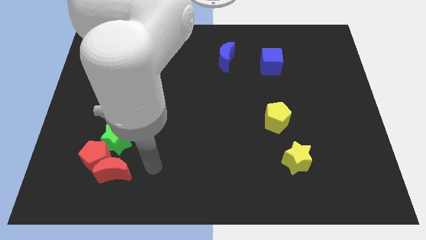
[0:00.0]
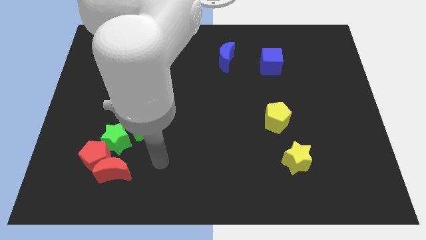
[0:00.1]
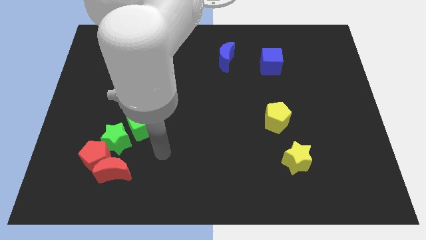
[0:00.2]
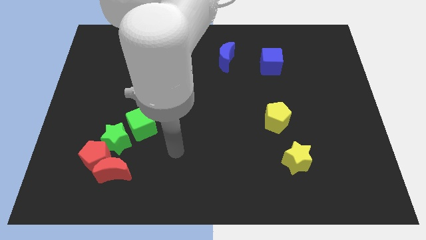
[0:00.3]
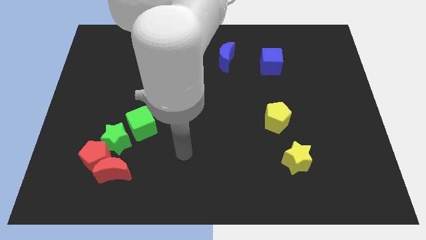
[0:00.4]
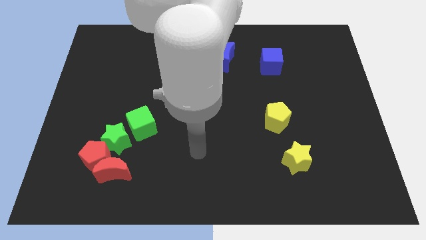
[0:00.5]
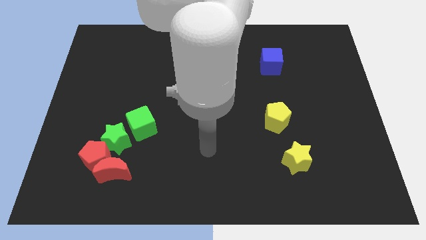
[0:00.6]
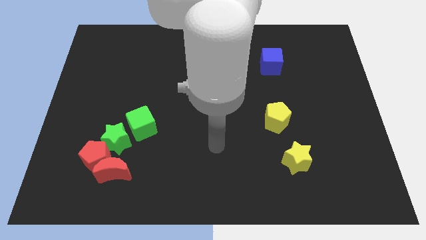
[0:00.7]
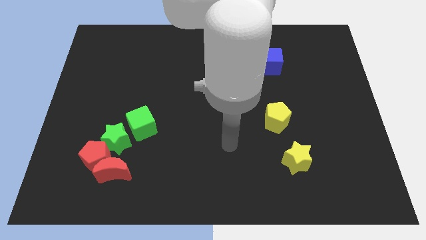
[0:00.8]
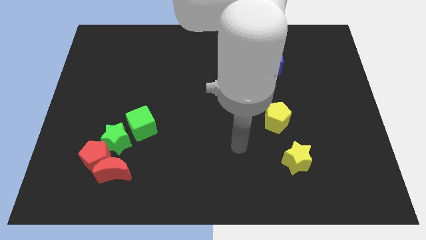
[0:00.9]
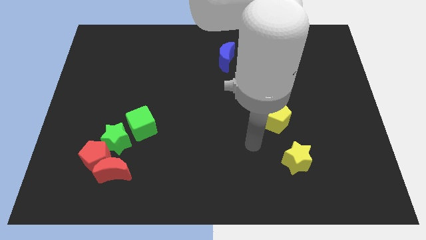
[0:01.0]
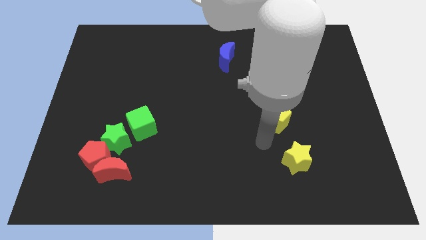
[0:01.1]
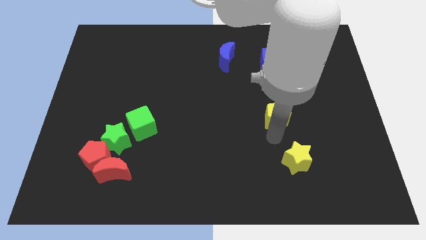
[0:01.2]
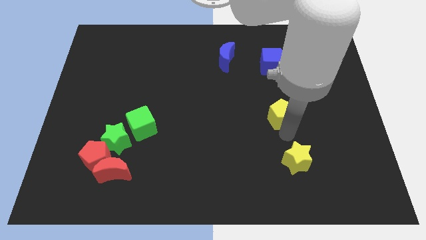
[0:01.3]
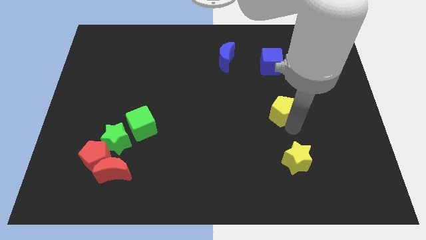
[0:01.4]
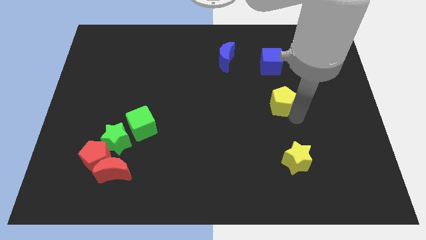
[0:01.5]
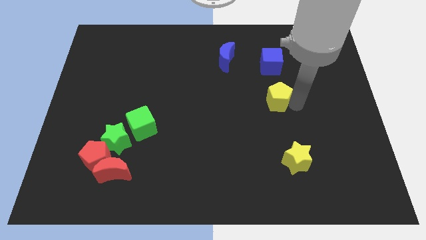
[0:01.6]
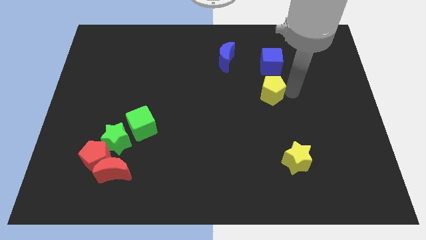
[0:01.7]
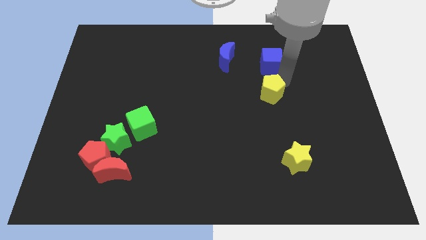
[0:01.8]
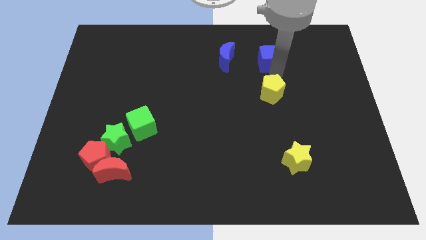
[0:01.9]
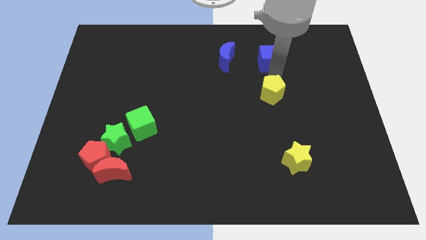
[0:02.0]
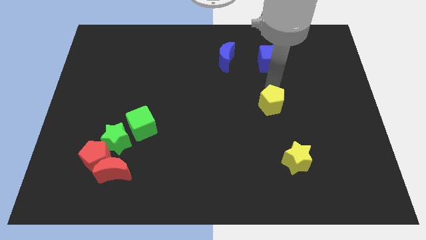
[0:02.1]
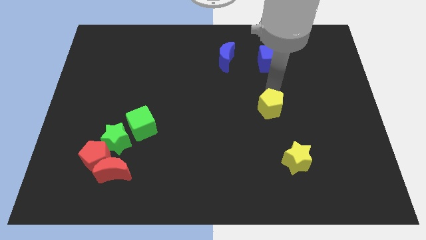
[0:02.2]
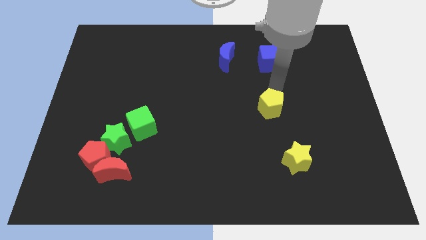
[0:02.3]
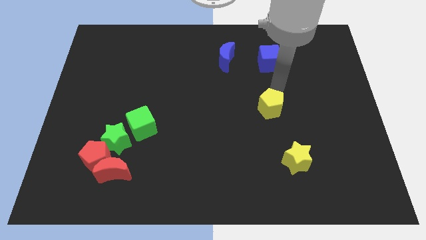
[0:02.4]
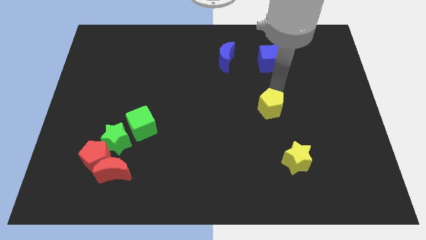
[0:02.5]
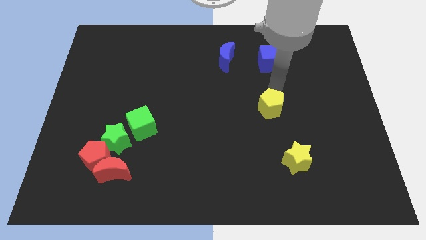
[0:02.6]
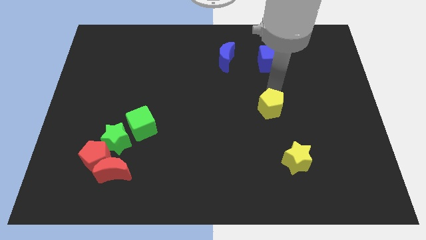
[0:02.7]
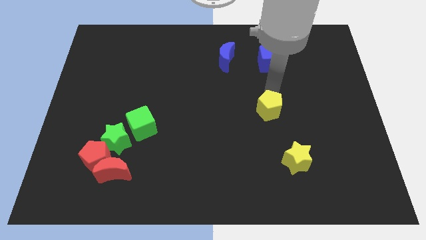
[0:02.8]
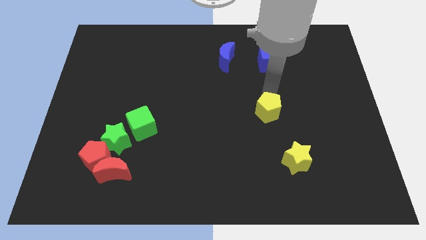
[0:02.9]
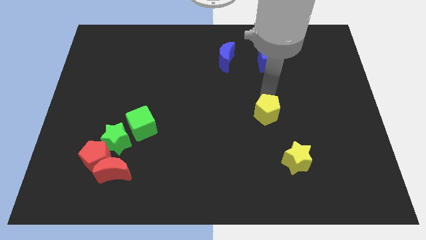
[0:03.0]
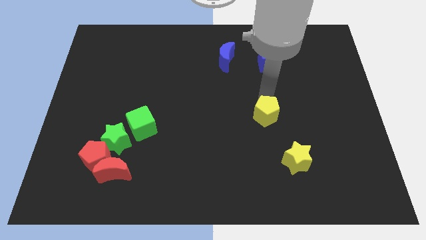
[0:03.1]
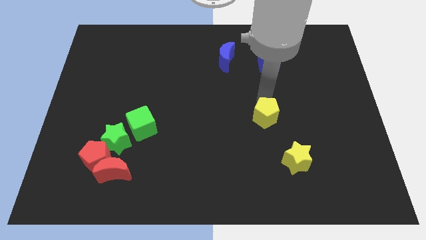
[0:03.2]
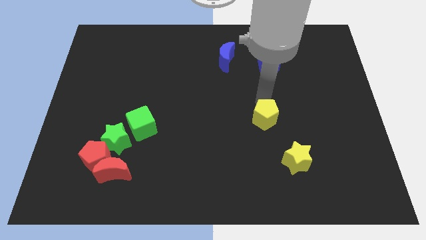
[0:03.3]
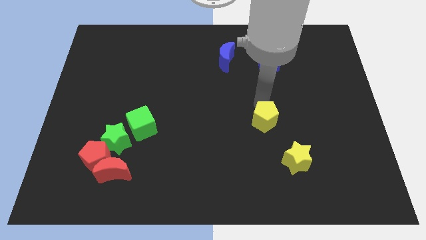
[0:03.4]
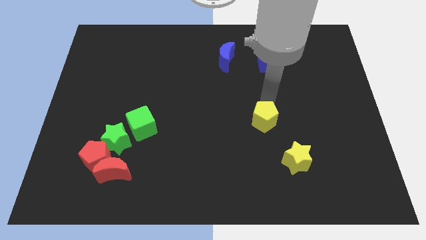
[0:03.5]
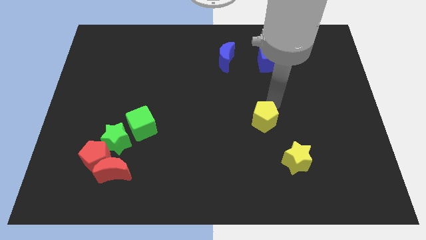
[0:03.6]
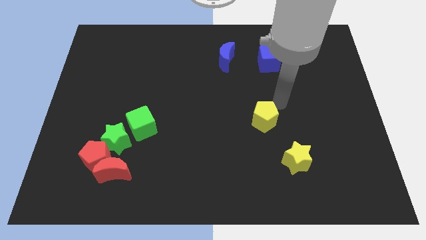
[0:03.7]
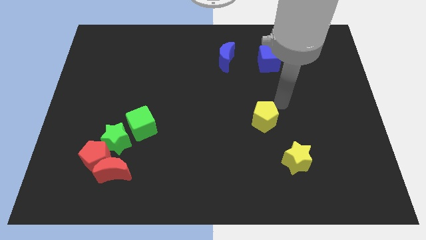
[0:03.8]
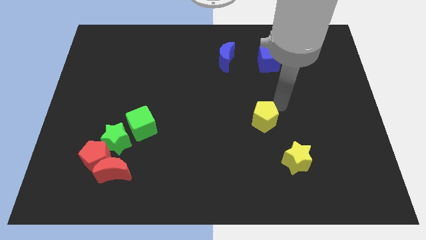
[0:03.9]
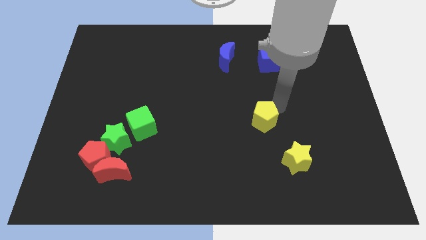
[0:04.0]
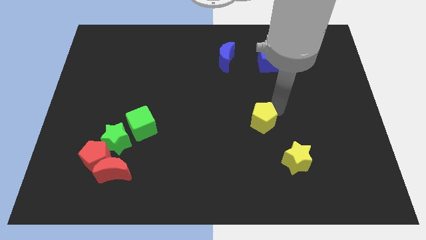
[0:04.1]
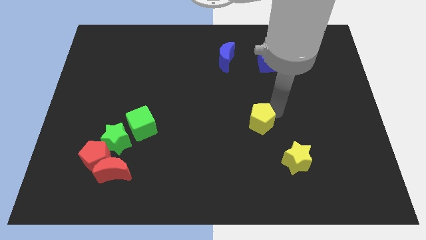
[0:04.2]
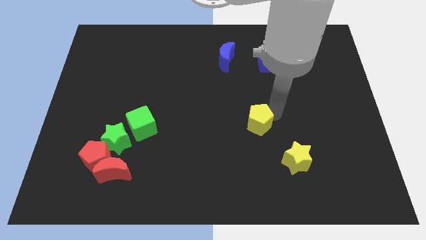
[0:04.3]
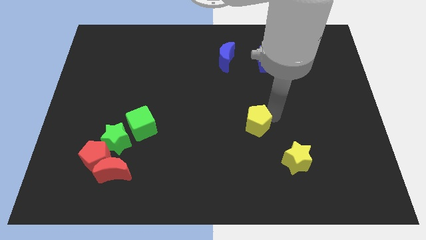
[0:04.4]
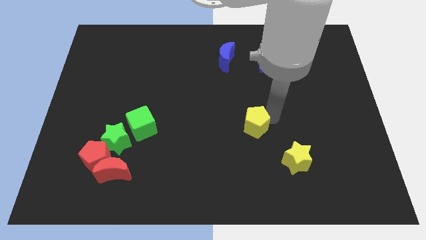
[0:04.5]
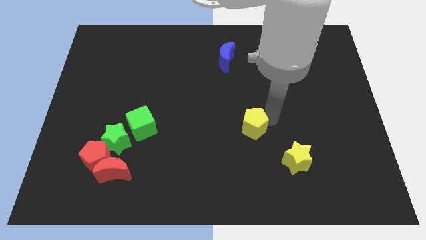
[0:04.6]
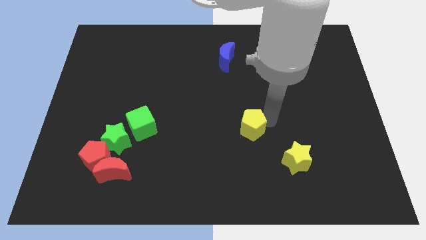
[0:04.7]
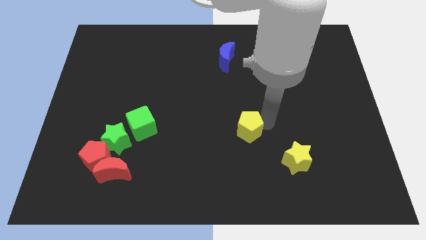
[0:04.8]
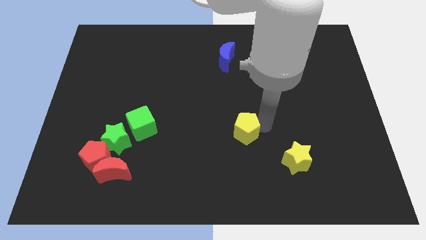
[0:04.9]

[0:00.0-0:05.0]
slightly push the yellow pentagon downwards and then left

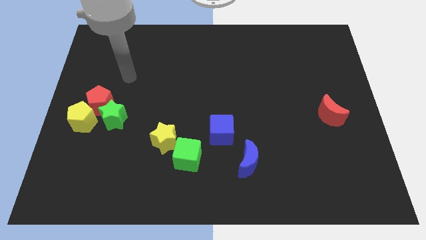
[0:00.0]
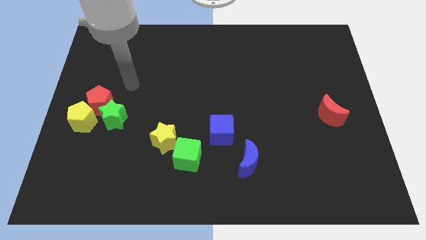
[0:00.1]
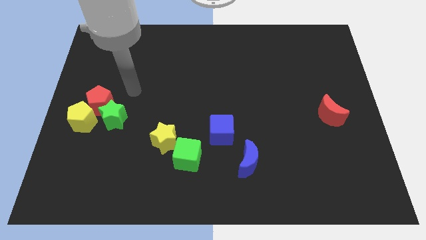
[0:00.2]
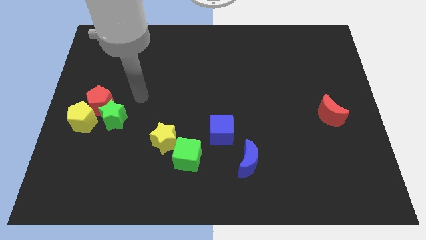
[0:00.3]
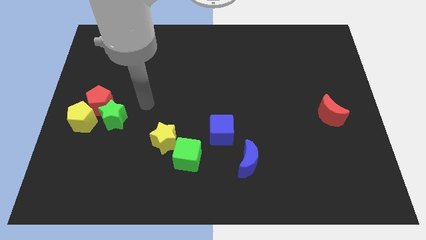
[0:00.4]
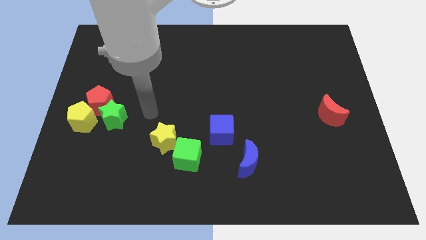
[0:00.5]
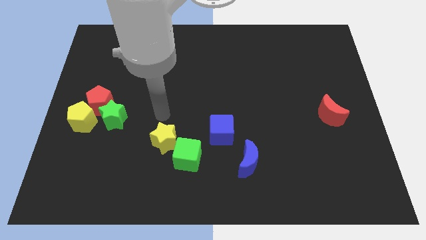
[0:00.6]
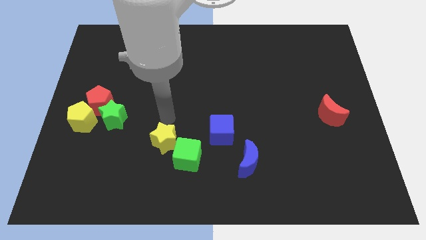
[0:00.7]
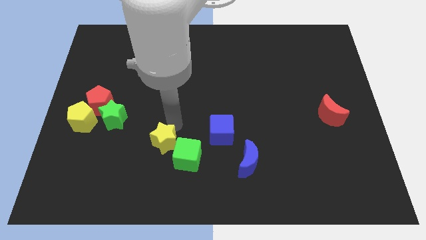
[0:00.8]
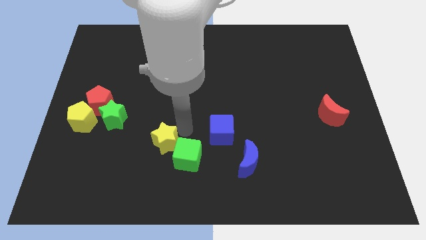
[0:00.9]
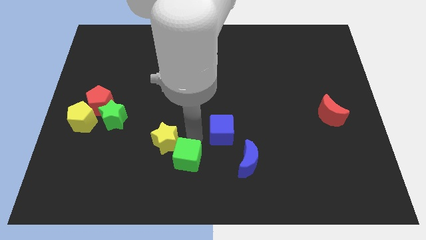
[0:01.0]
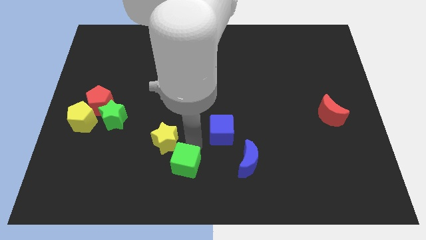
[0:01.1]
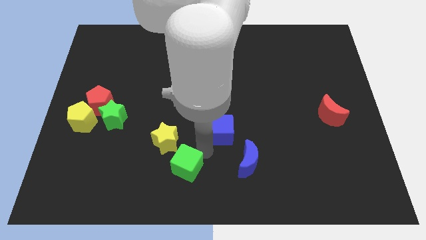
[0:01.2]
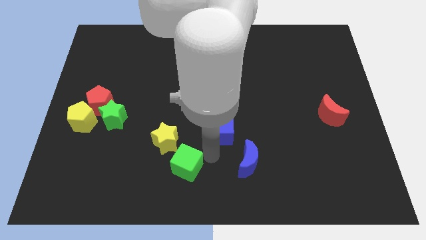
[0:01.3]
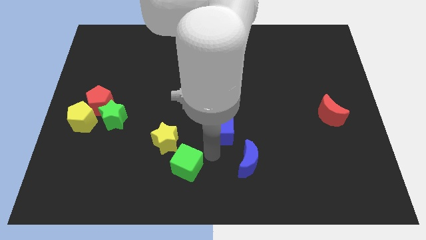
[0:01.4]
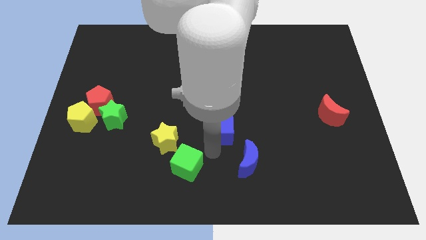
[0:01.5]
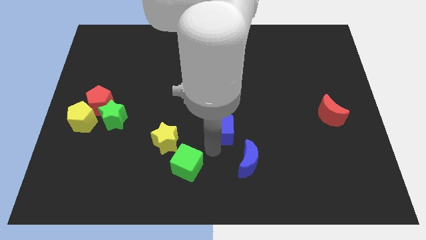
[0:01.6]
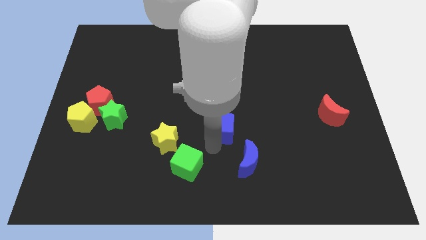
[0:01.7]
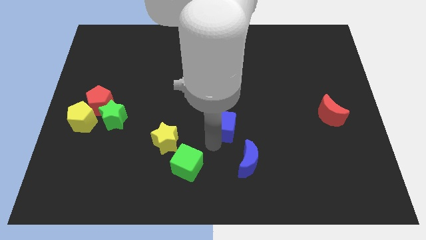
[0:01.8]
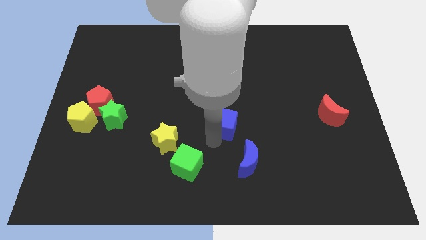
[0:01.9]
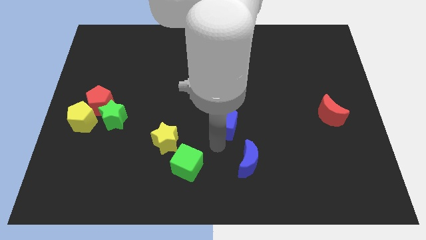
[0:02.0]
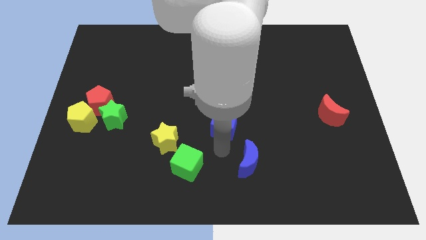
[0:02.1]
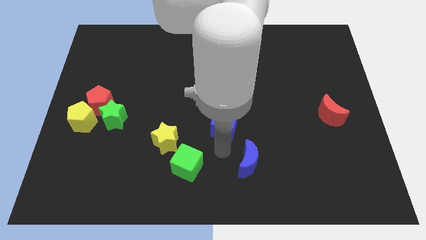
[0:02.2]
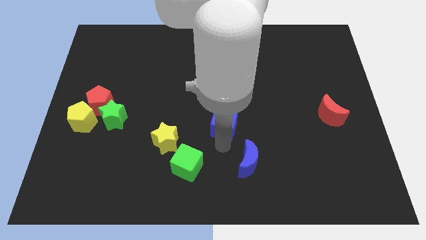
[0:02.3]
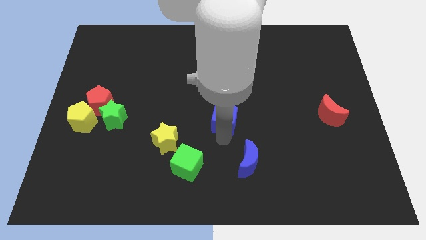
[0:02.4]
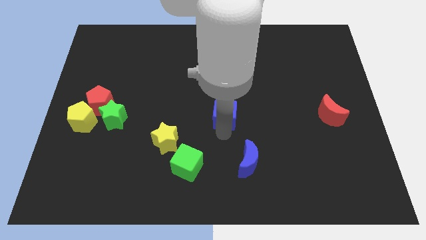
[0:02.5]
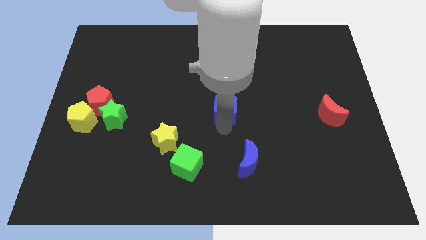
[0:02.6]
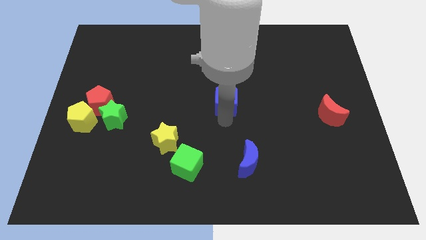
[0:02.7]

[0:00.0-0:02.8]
push the blue cube up somewhat

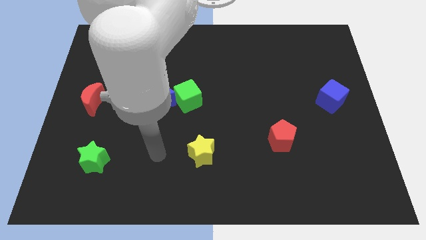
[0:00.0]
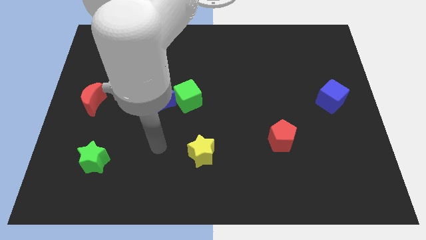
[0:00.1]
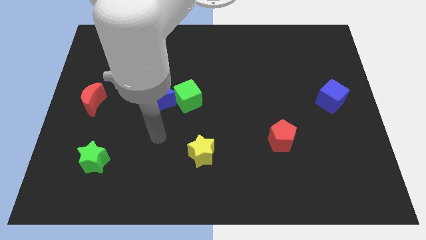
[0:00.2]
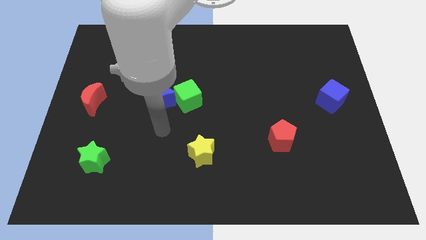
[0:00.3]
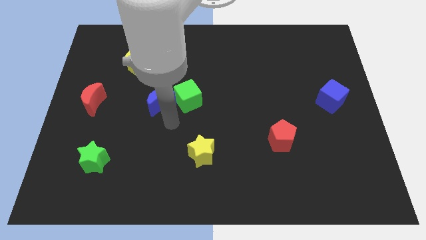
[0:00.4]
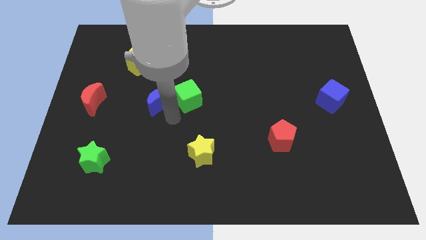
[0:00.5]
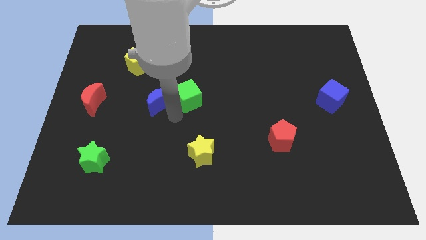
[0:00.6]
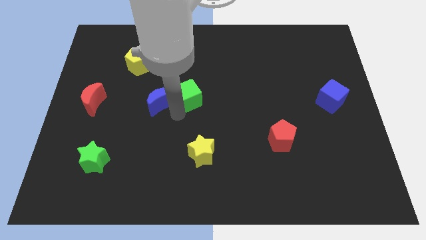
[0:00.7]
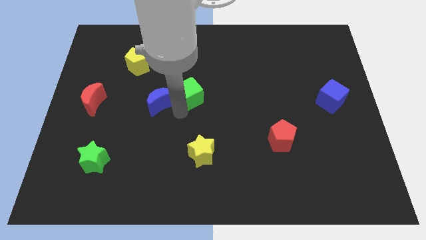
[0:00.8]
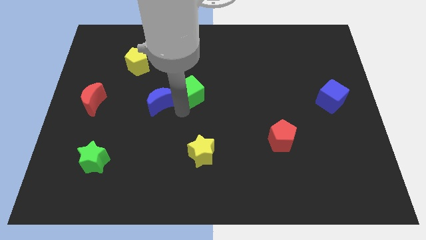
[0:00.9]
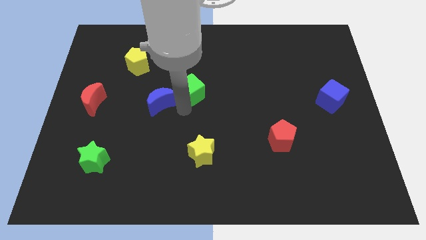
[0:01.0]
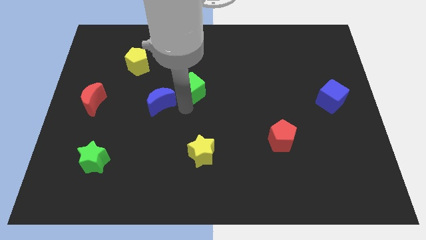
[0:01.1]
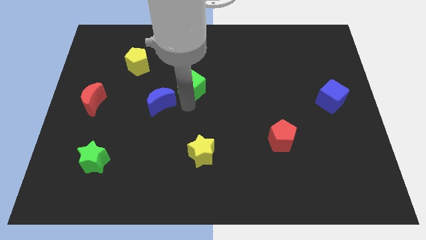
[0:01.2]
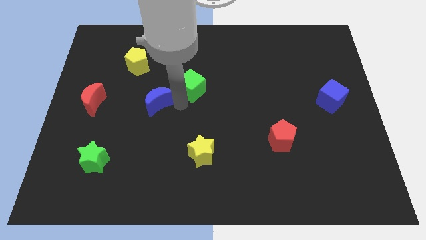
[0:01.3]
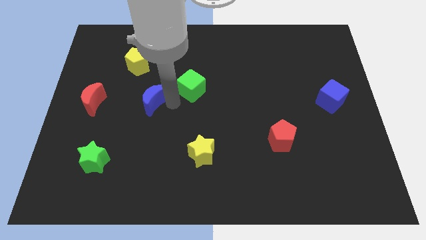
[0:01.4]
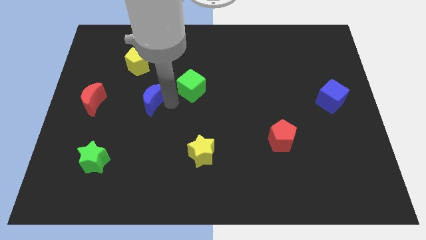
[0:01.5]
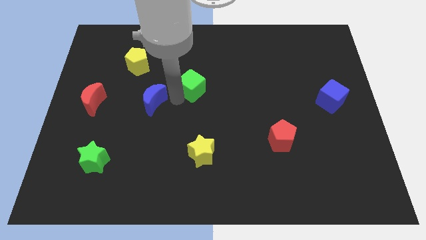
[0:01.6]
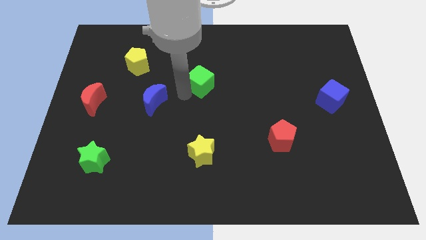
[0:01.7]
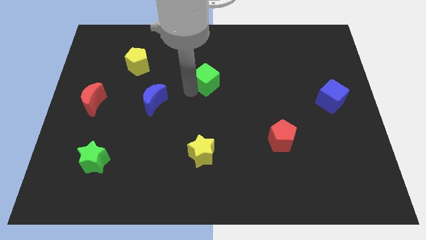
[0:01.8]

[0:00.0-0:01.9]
move the green cube somewhat upwards and to the right
